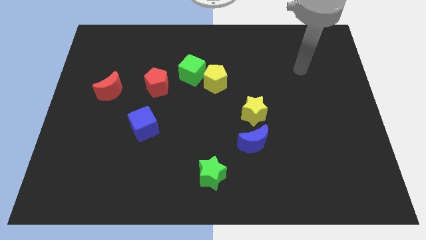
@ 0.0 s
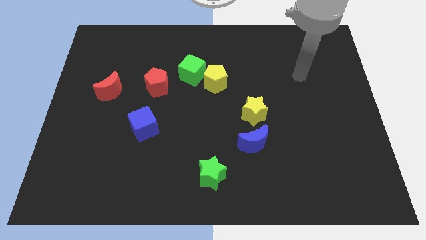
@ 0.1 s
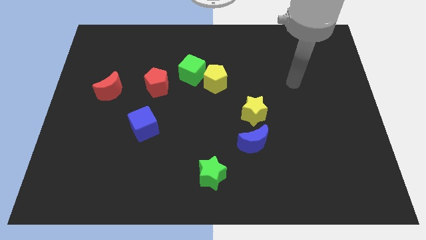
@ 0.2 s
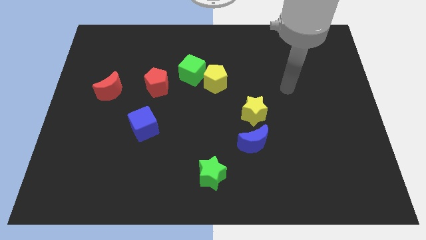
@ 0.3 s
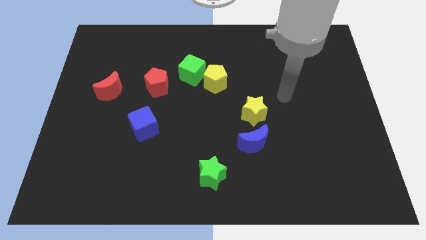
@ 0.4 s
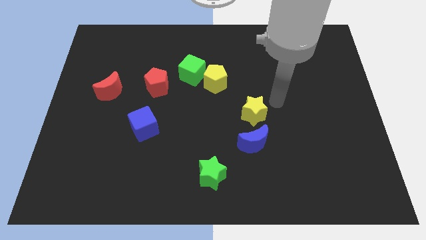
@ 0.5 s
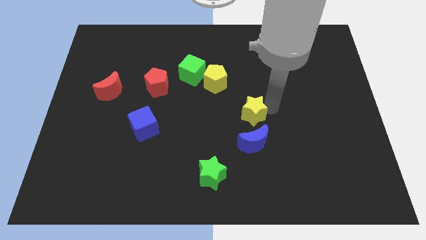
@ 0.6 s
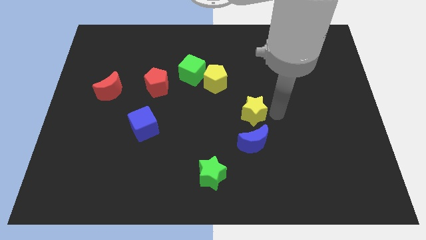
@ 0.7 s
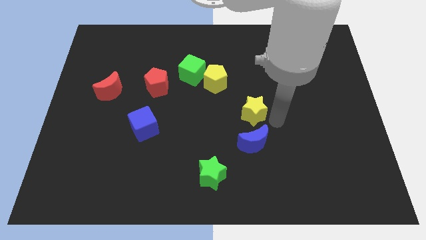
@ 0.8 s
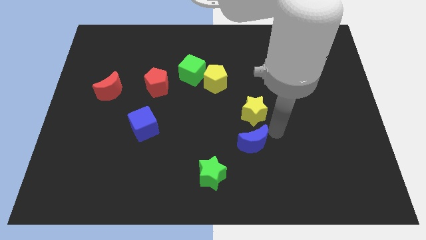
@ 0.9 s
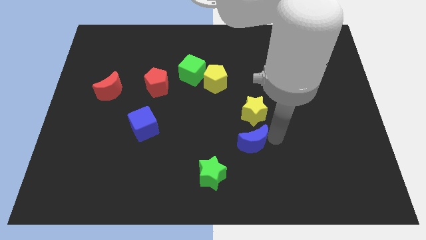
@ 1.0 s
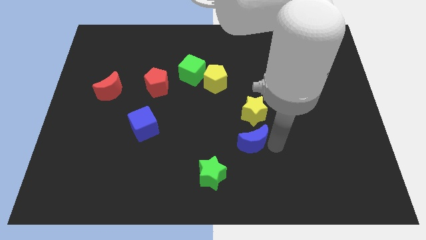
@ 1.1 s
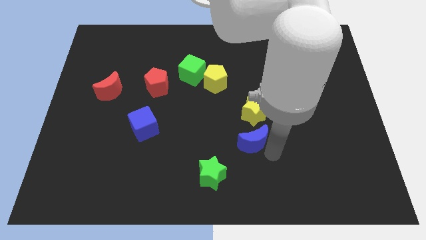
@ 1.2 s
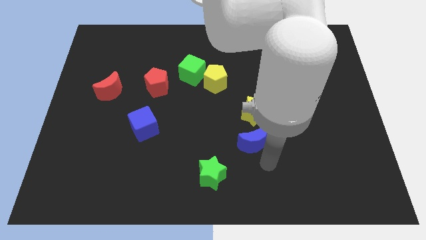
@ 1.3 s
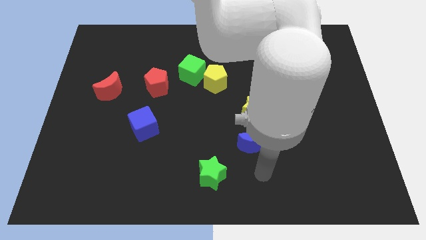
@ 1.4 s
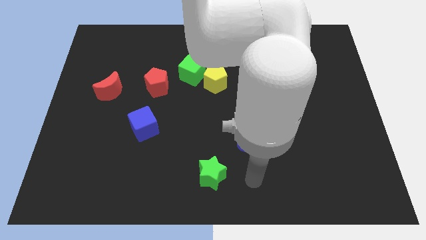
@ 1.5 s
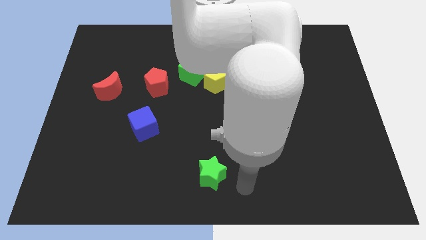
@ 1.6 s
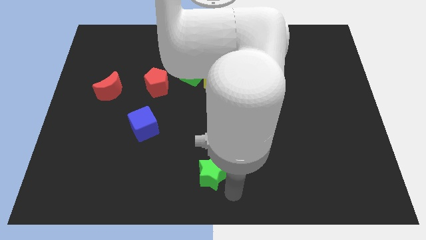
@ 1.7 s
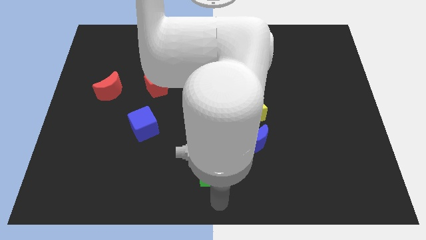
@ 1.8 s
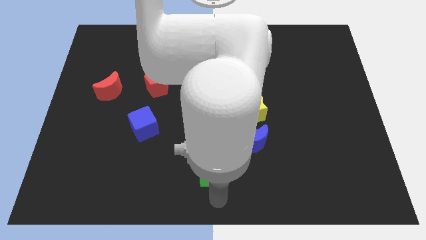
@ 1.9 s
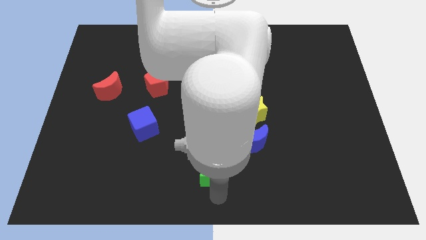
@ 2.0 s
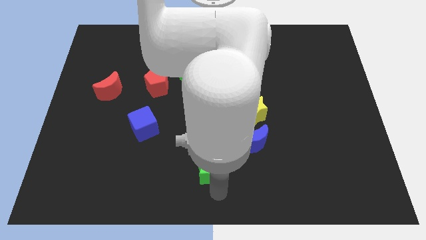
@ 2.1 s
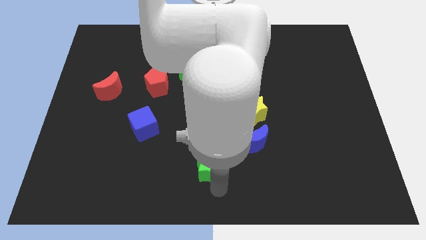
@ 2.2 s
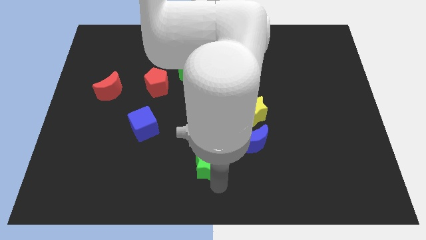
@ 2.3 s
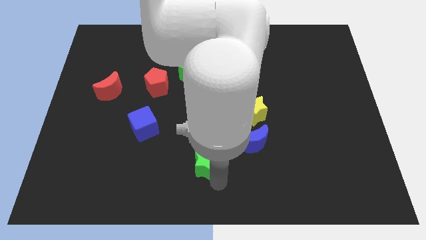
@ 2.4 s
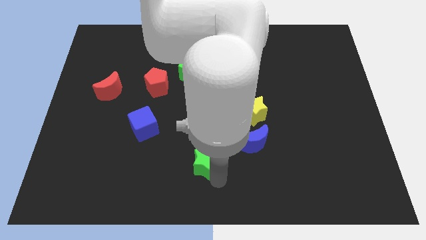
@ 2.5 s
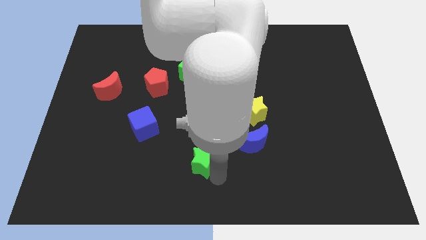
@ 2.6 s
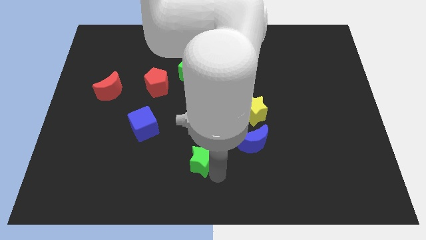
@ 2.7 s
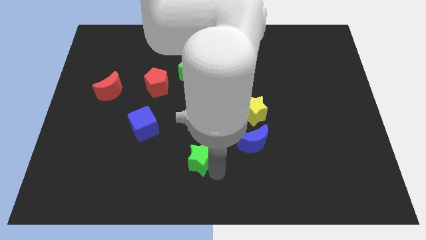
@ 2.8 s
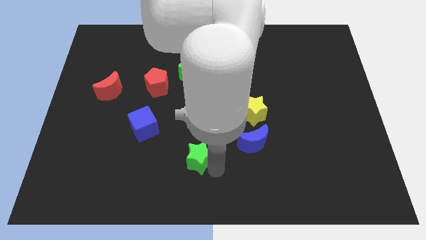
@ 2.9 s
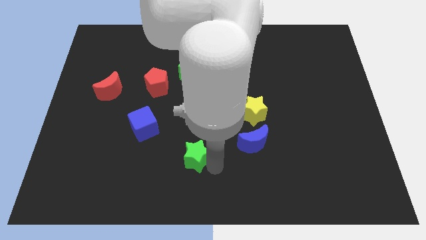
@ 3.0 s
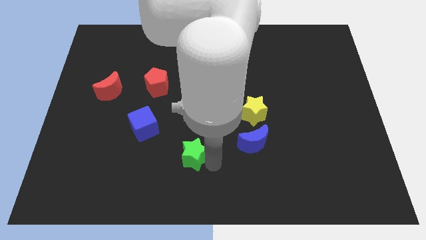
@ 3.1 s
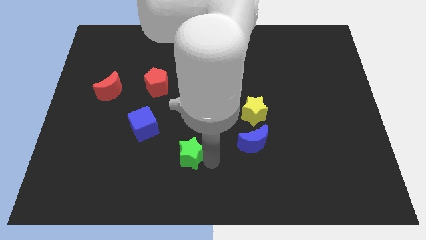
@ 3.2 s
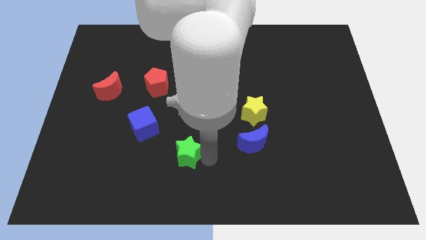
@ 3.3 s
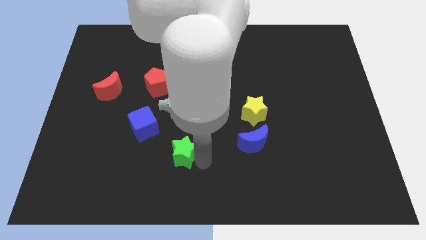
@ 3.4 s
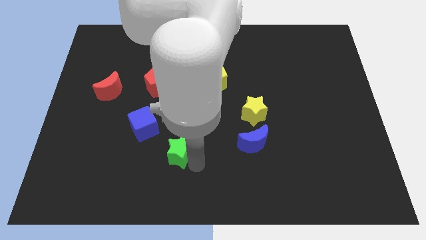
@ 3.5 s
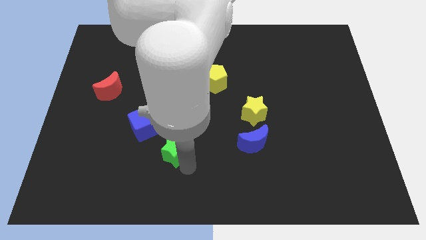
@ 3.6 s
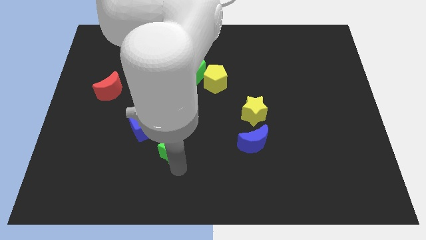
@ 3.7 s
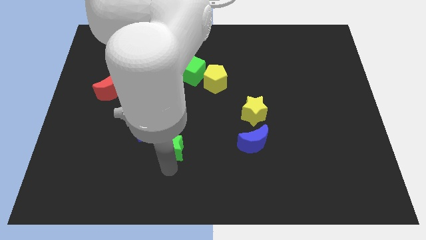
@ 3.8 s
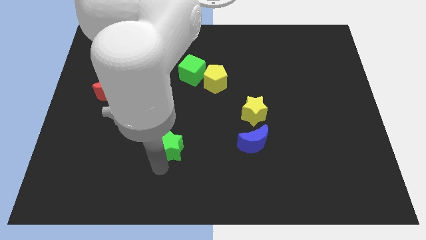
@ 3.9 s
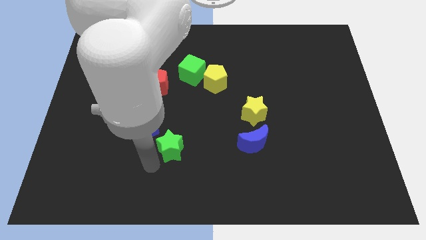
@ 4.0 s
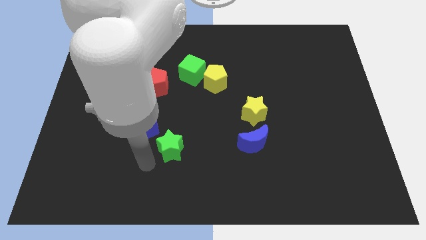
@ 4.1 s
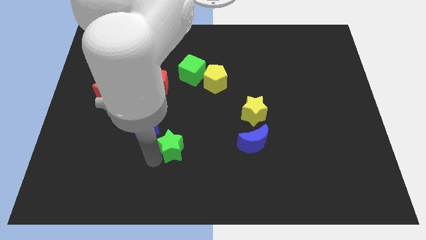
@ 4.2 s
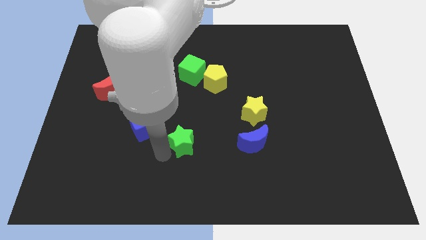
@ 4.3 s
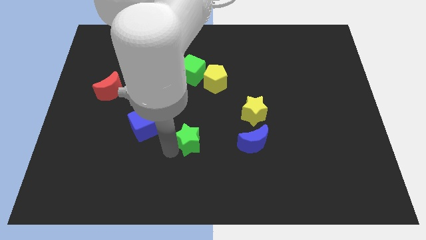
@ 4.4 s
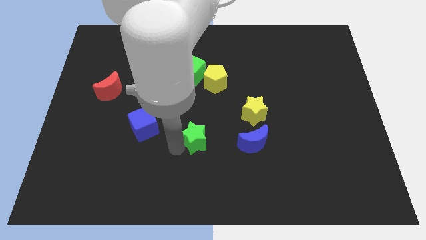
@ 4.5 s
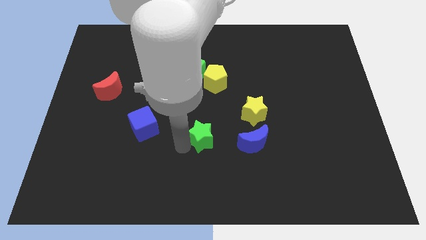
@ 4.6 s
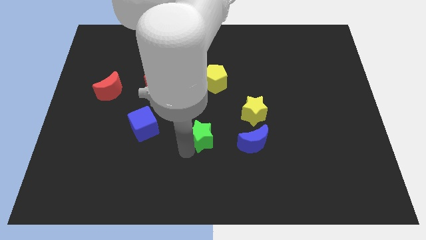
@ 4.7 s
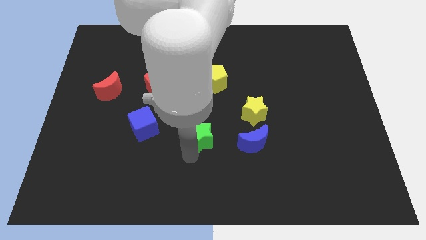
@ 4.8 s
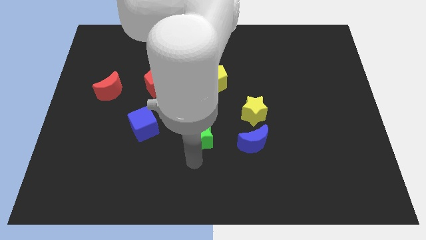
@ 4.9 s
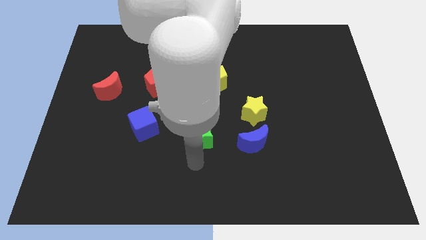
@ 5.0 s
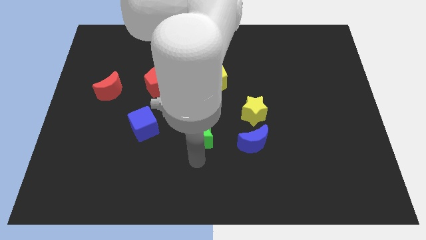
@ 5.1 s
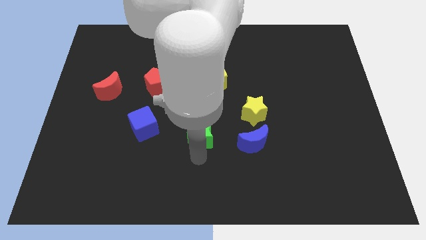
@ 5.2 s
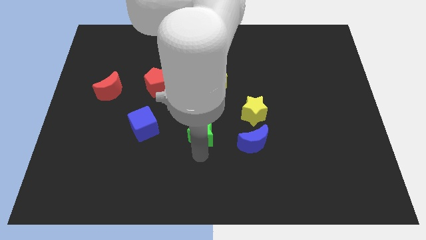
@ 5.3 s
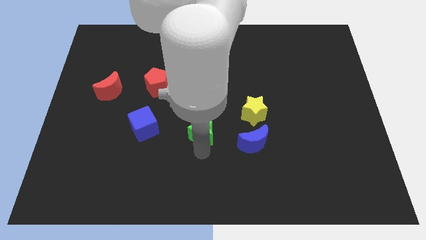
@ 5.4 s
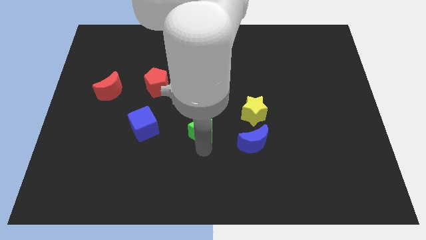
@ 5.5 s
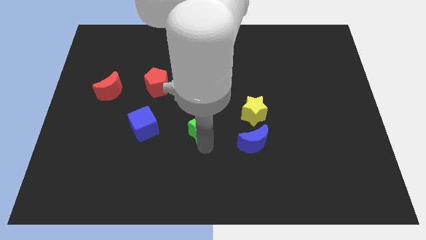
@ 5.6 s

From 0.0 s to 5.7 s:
push the green star to the left of the yellow star

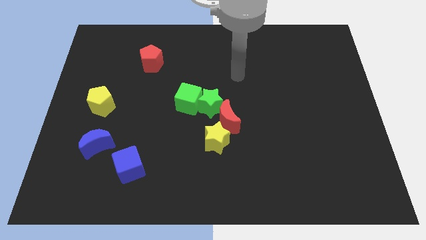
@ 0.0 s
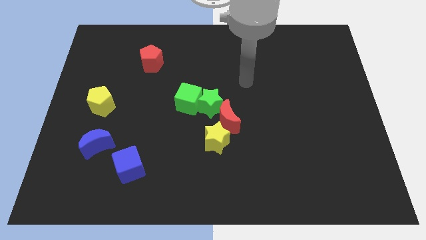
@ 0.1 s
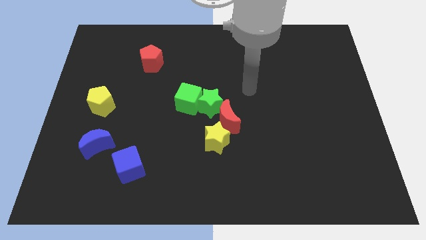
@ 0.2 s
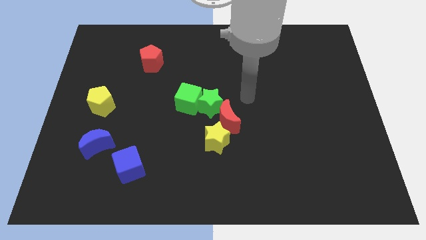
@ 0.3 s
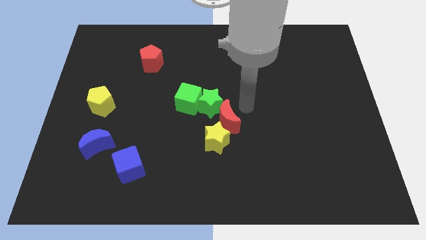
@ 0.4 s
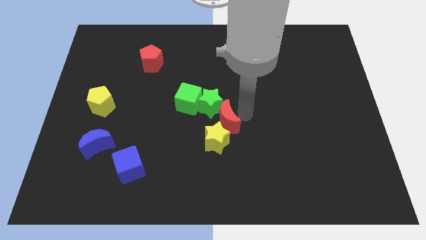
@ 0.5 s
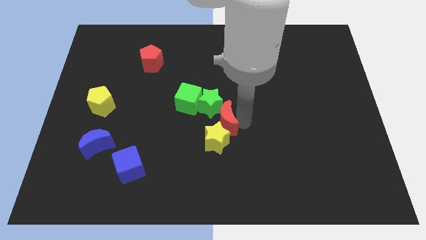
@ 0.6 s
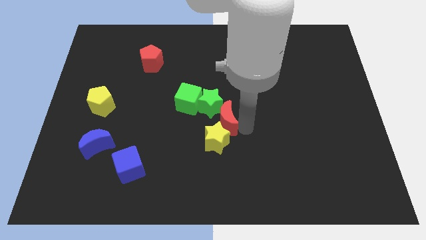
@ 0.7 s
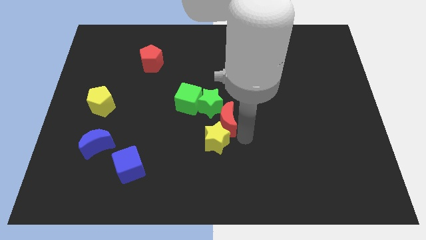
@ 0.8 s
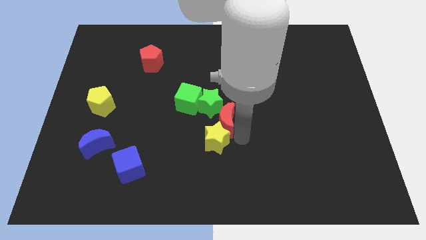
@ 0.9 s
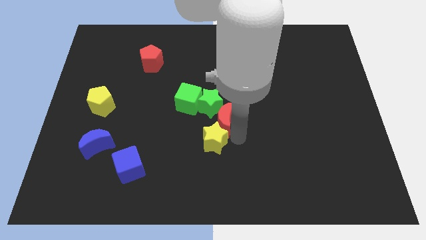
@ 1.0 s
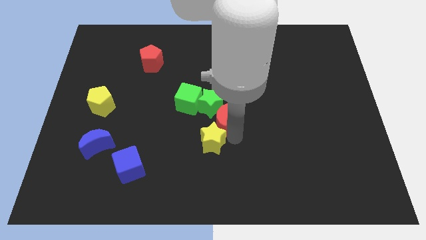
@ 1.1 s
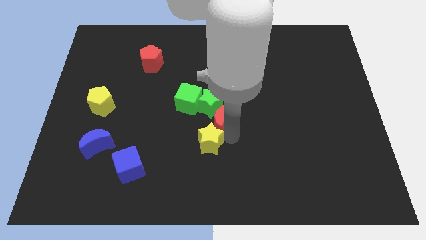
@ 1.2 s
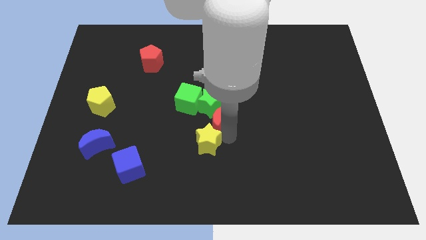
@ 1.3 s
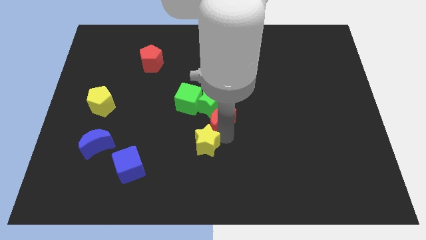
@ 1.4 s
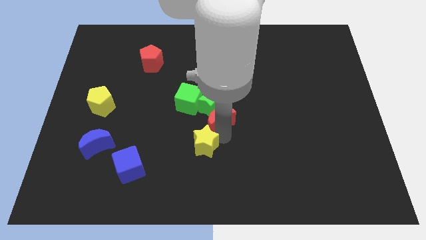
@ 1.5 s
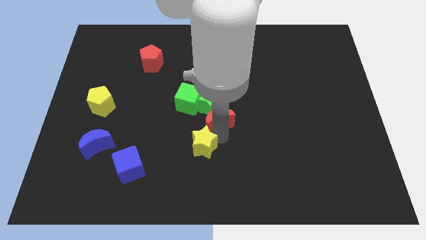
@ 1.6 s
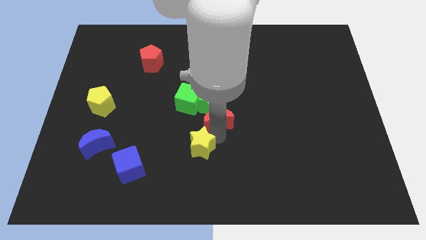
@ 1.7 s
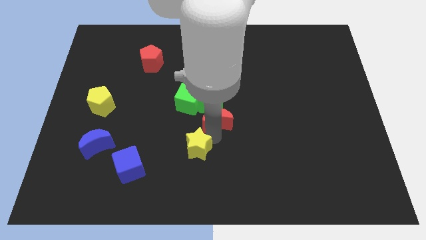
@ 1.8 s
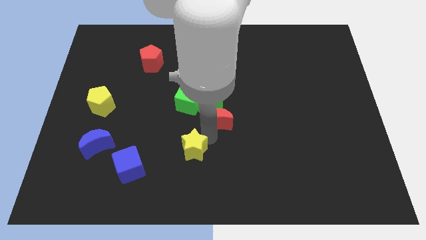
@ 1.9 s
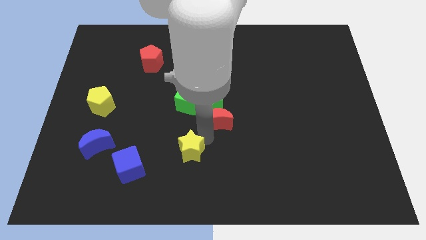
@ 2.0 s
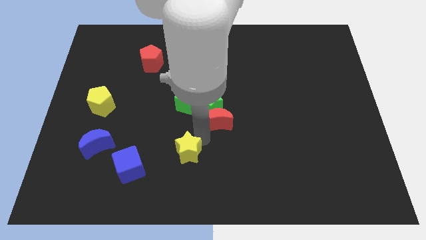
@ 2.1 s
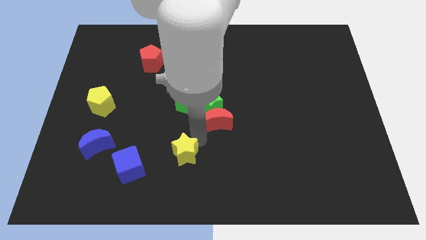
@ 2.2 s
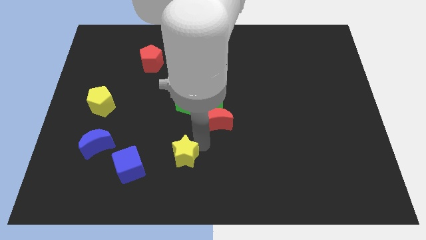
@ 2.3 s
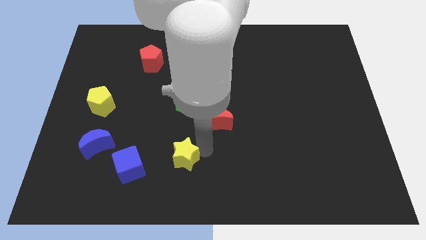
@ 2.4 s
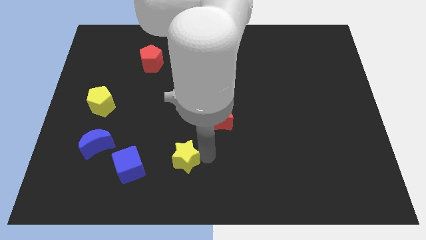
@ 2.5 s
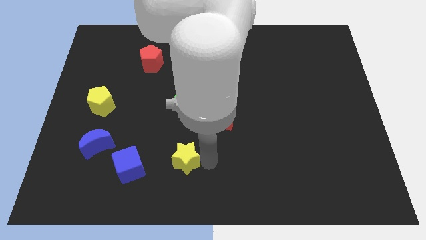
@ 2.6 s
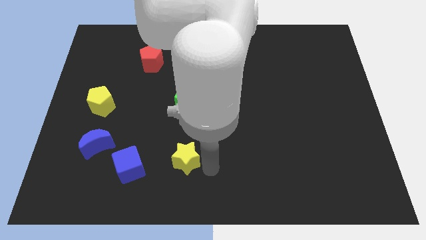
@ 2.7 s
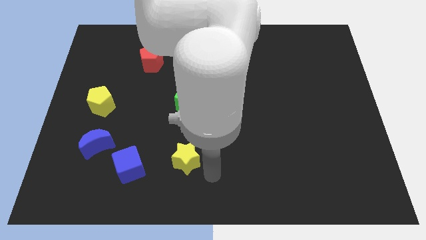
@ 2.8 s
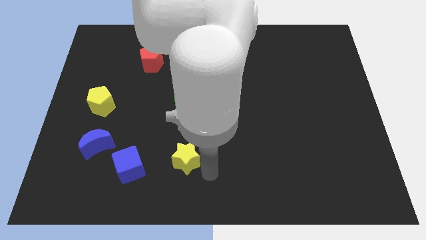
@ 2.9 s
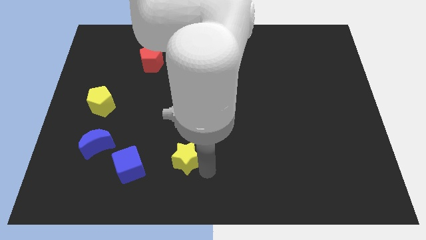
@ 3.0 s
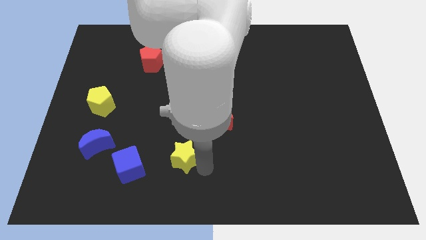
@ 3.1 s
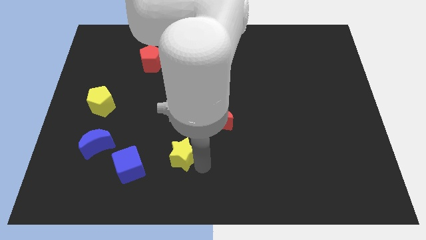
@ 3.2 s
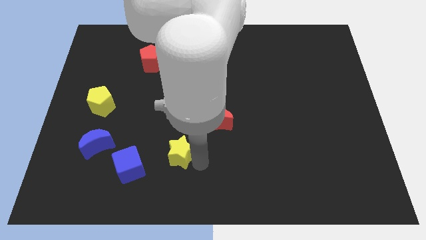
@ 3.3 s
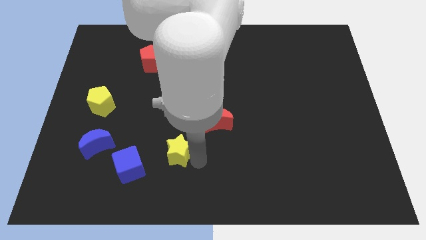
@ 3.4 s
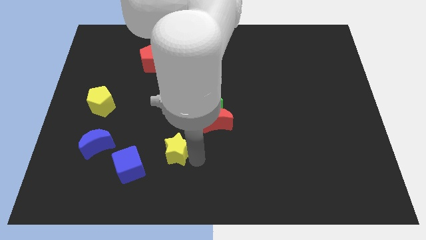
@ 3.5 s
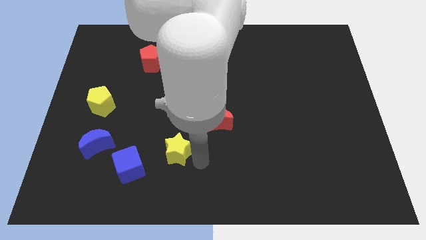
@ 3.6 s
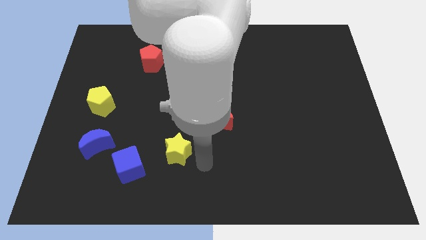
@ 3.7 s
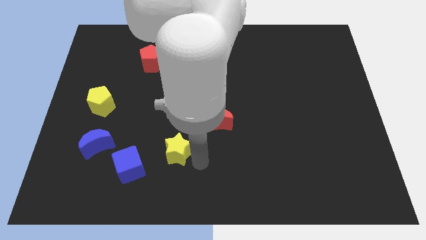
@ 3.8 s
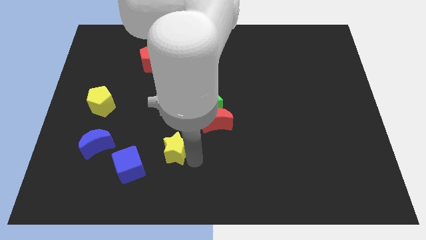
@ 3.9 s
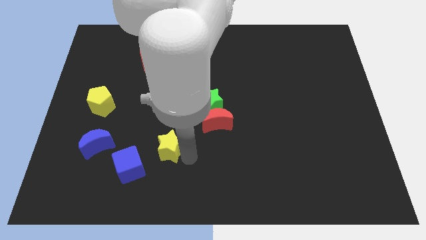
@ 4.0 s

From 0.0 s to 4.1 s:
push the yellow star right of the blue moon
